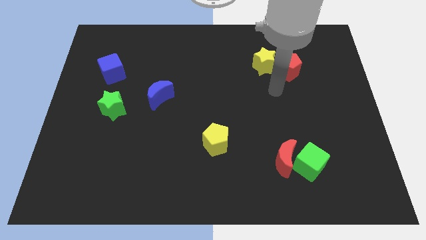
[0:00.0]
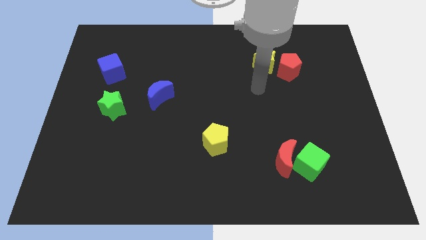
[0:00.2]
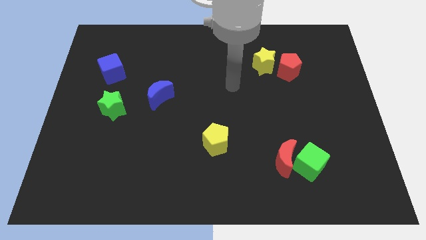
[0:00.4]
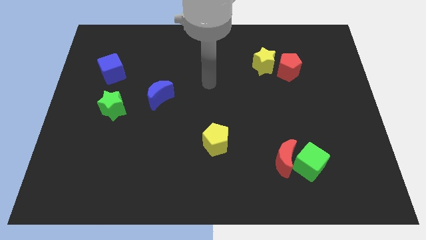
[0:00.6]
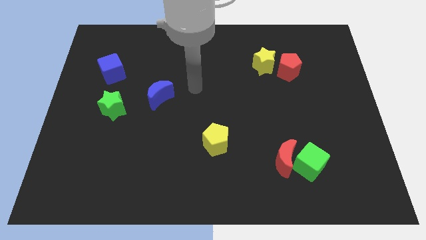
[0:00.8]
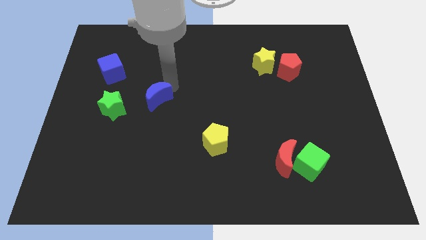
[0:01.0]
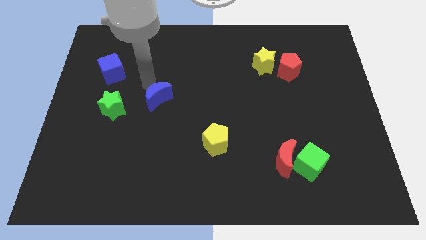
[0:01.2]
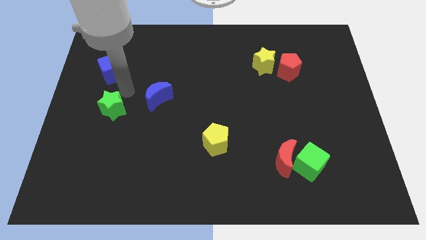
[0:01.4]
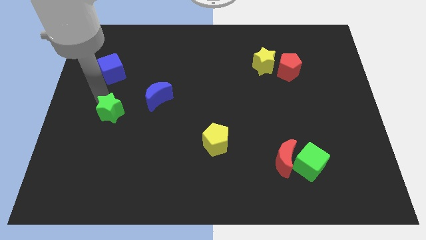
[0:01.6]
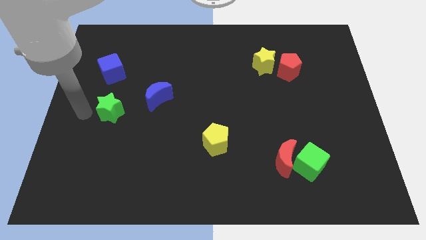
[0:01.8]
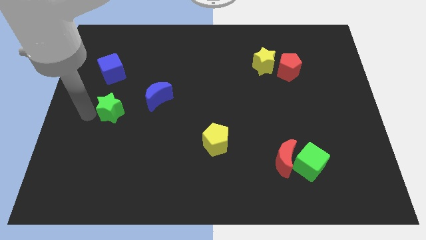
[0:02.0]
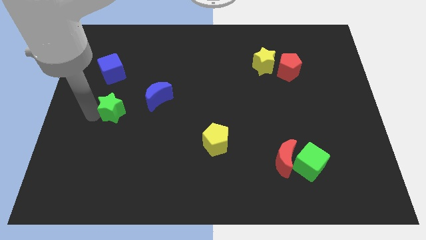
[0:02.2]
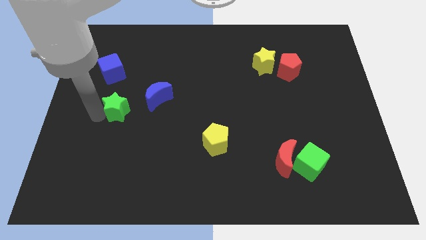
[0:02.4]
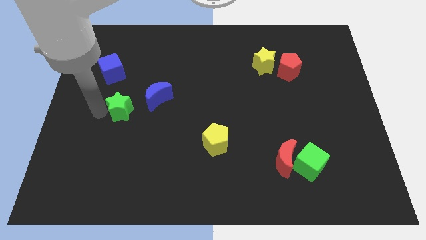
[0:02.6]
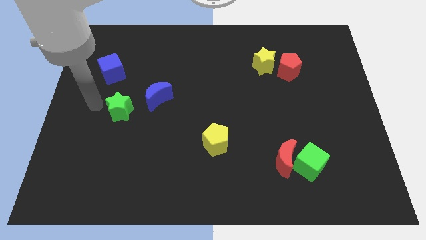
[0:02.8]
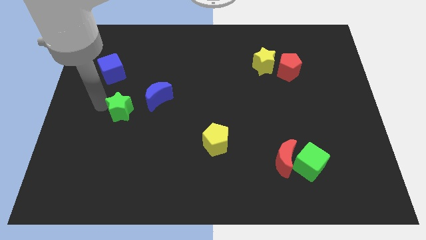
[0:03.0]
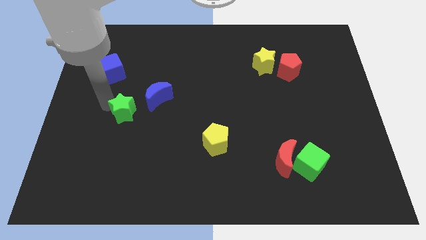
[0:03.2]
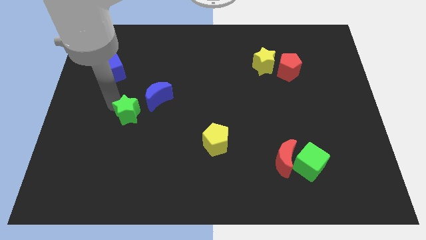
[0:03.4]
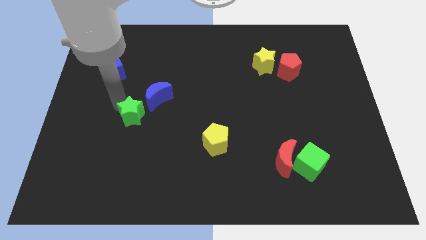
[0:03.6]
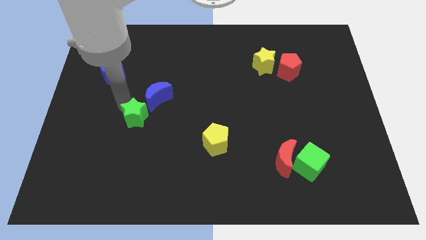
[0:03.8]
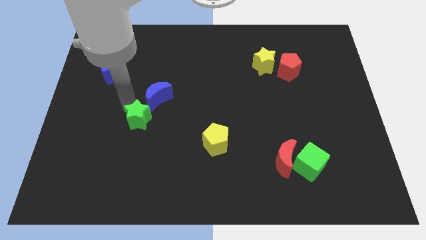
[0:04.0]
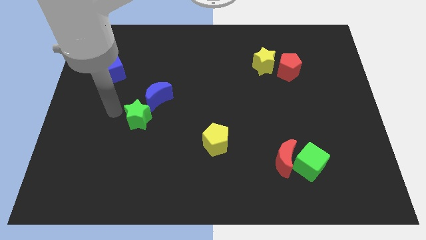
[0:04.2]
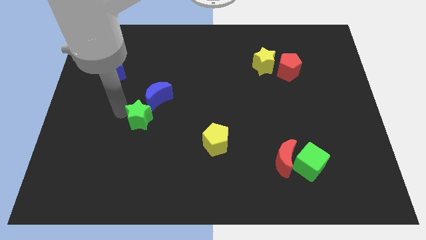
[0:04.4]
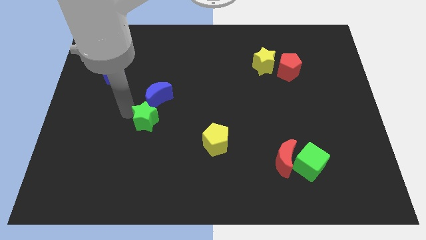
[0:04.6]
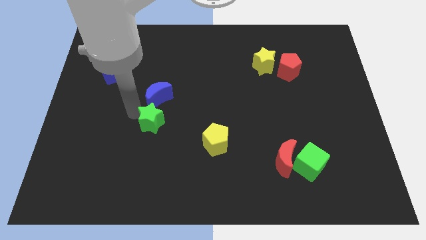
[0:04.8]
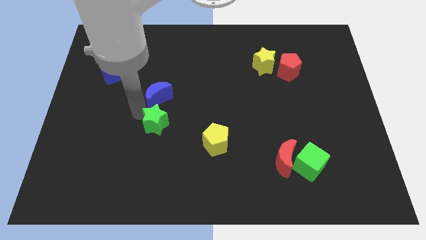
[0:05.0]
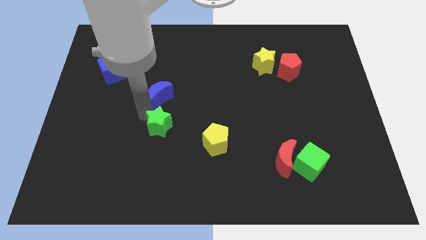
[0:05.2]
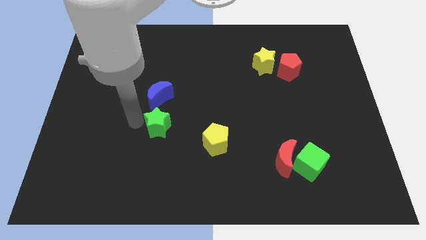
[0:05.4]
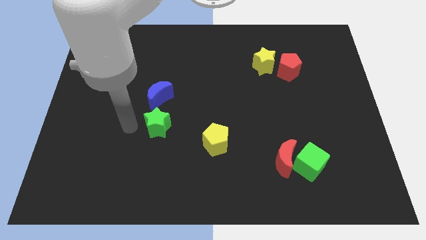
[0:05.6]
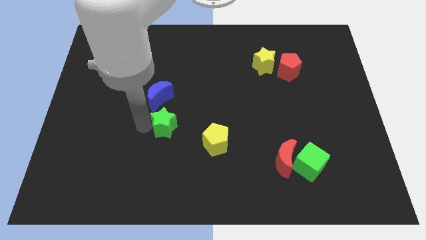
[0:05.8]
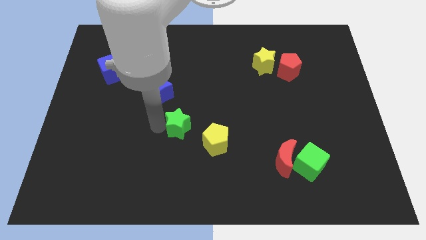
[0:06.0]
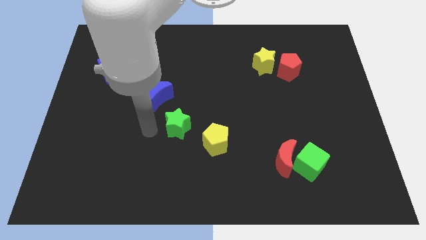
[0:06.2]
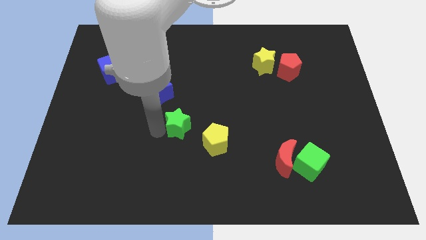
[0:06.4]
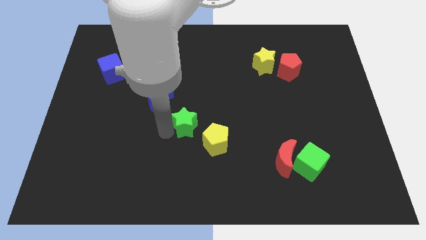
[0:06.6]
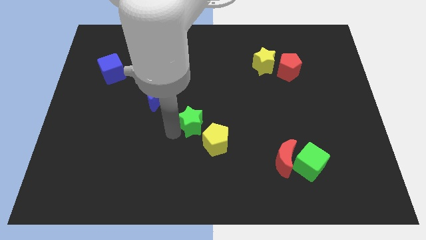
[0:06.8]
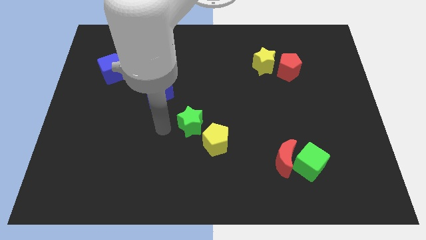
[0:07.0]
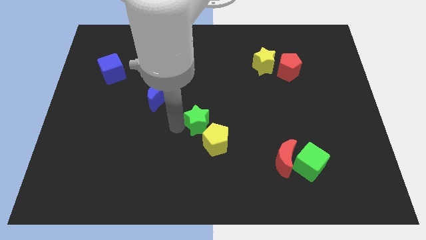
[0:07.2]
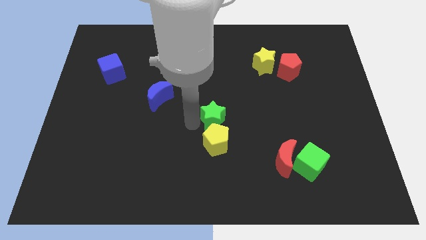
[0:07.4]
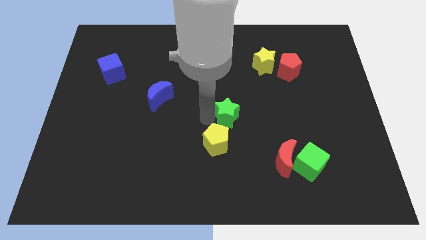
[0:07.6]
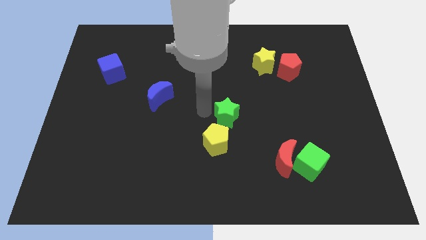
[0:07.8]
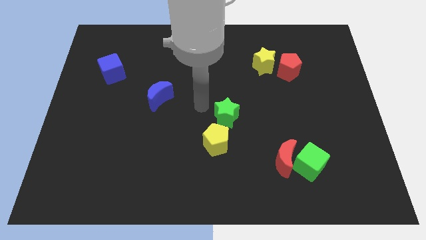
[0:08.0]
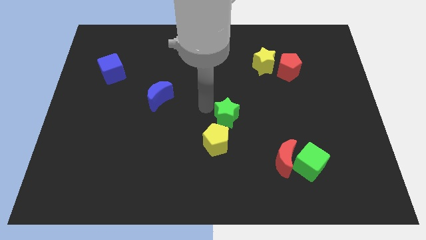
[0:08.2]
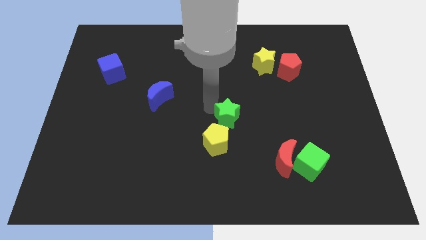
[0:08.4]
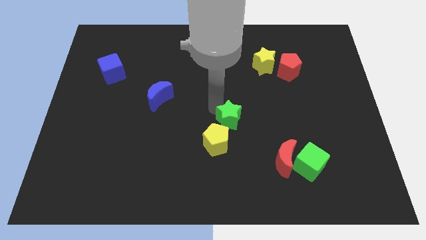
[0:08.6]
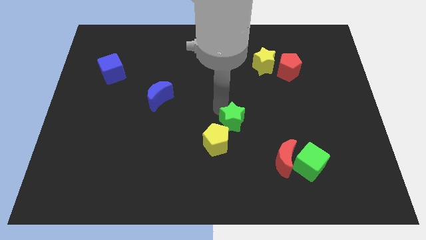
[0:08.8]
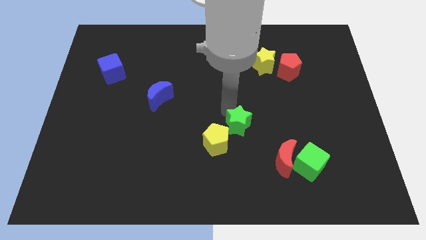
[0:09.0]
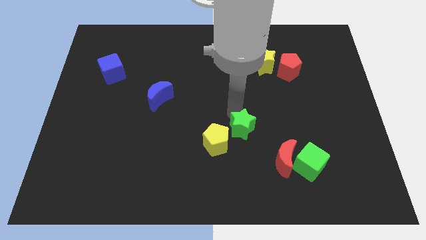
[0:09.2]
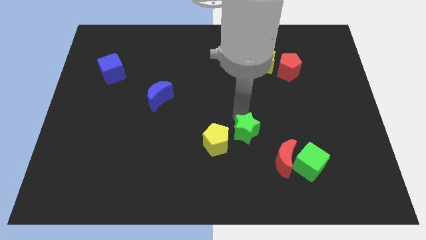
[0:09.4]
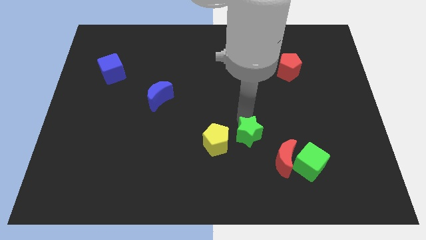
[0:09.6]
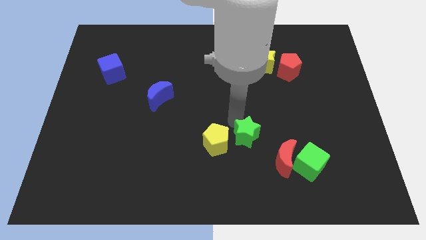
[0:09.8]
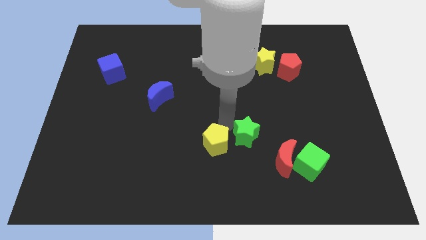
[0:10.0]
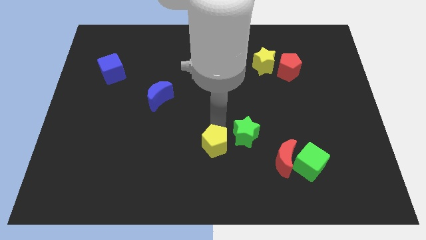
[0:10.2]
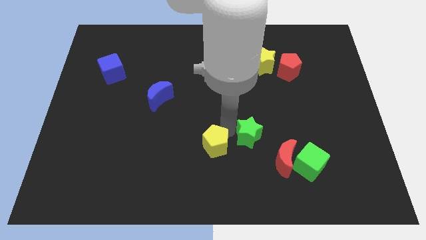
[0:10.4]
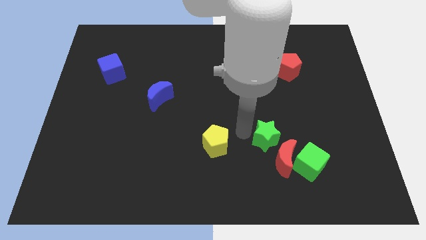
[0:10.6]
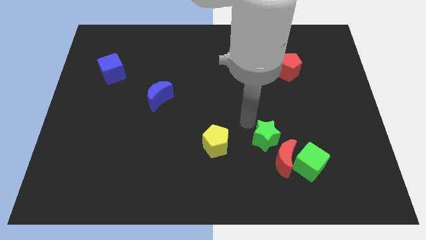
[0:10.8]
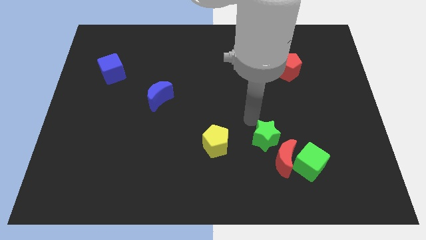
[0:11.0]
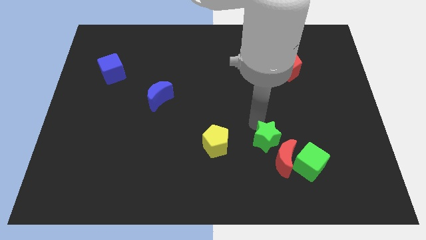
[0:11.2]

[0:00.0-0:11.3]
slide the green star close to the red moon

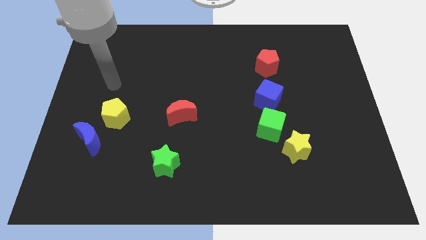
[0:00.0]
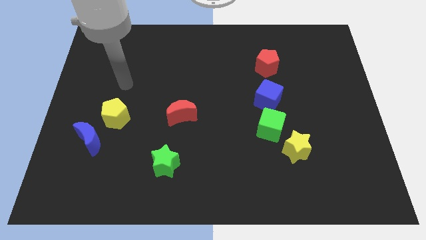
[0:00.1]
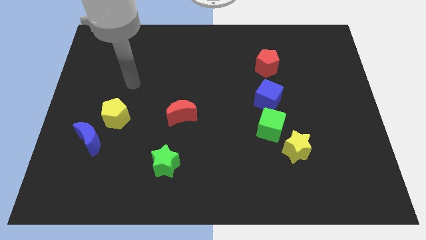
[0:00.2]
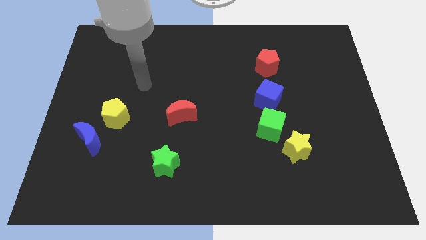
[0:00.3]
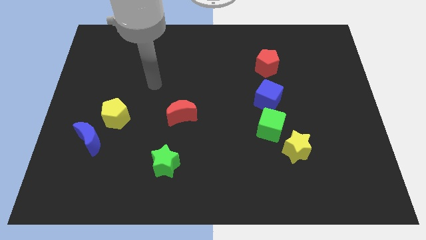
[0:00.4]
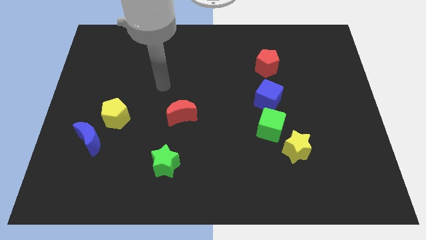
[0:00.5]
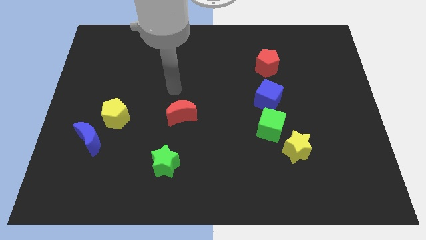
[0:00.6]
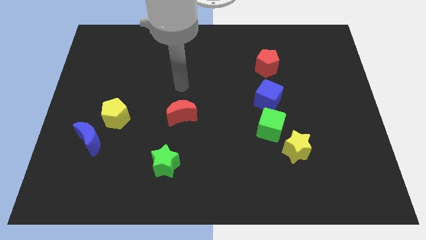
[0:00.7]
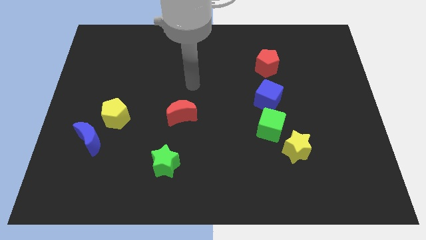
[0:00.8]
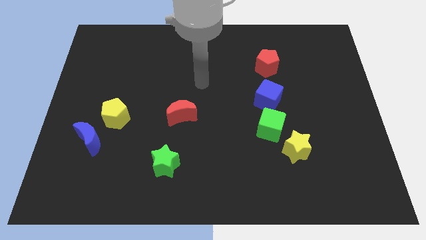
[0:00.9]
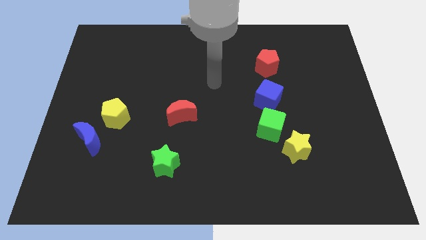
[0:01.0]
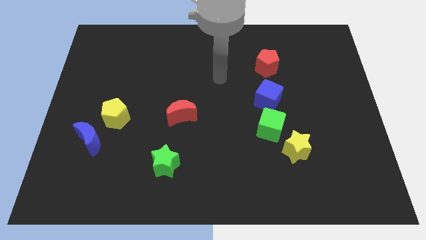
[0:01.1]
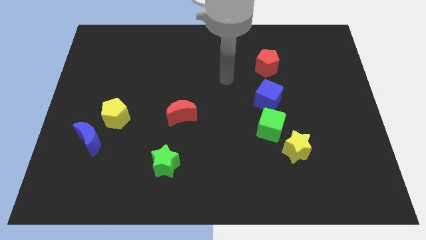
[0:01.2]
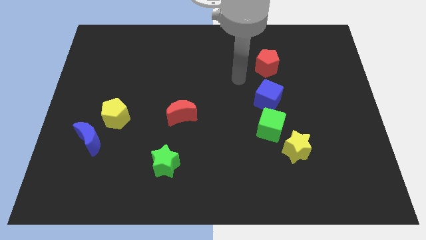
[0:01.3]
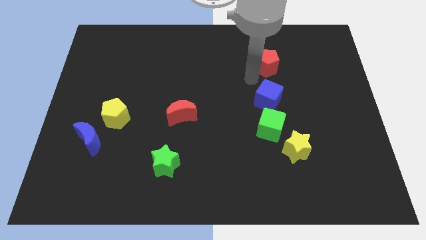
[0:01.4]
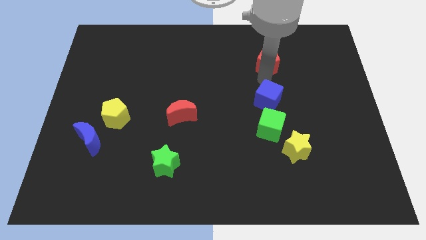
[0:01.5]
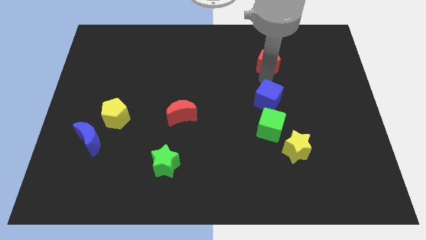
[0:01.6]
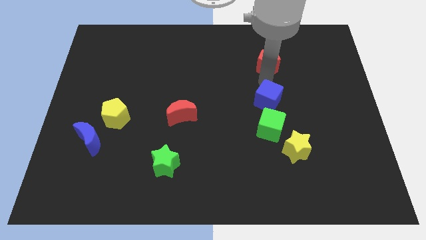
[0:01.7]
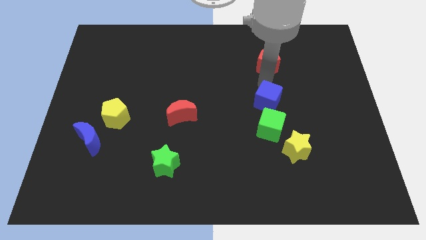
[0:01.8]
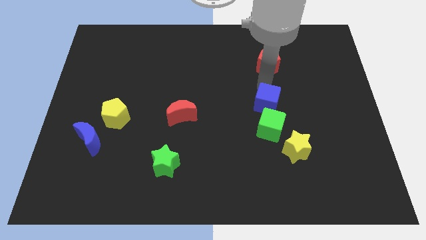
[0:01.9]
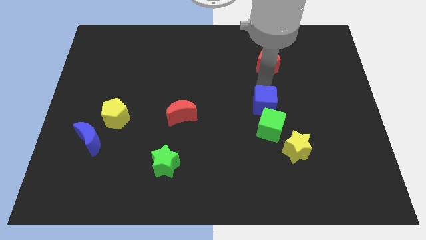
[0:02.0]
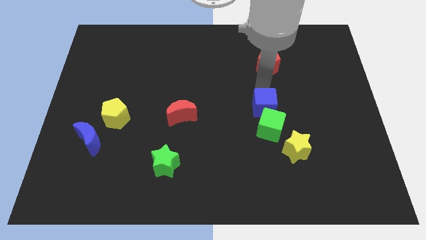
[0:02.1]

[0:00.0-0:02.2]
move the blue cube to the green cube
